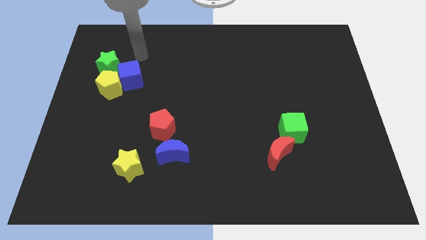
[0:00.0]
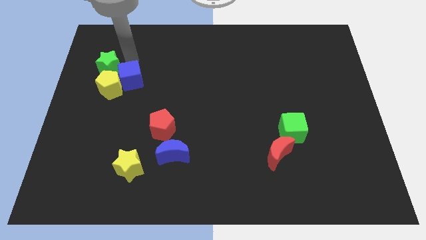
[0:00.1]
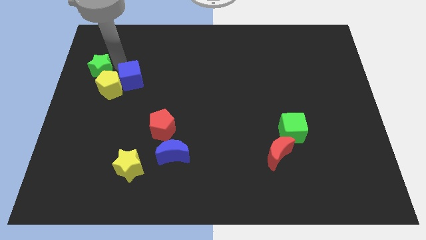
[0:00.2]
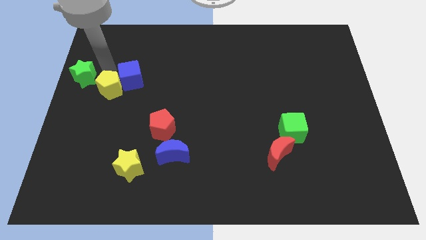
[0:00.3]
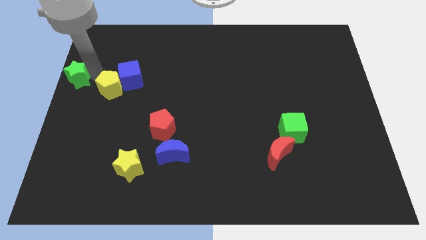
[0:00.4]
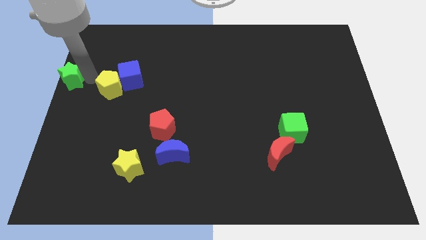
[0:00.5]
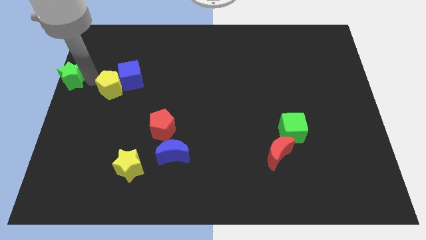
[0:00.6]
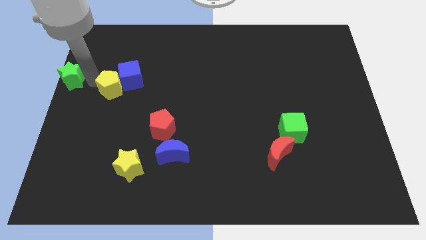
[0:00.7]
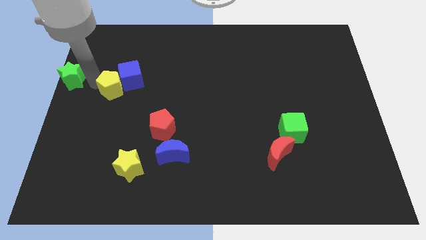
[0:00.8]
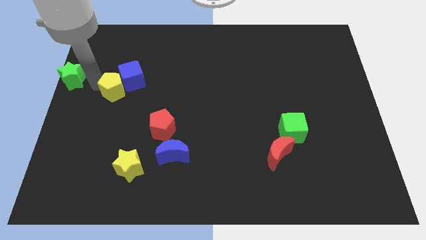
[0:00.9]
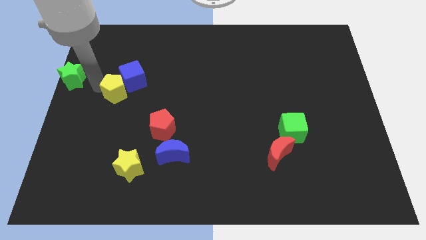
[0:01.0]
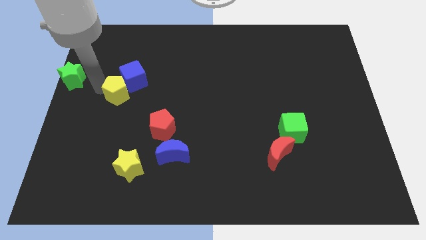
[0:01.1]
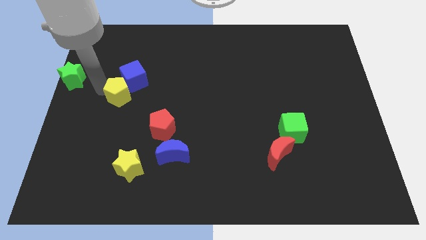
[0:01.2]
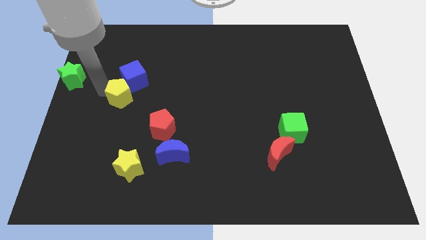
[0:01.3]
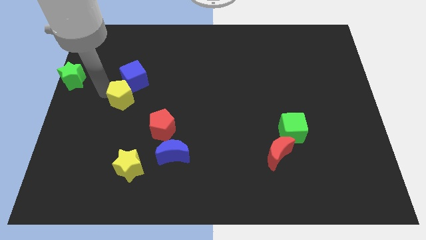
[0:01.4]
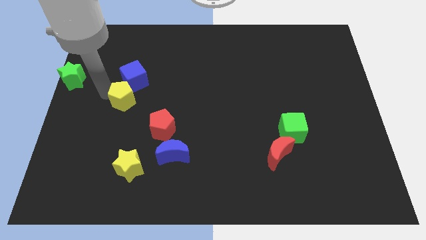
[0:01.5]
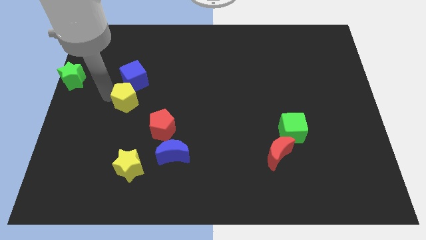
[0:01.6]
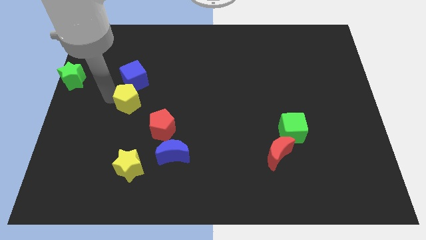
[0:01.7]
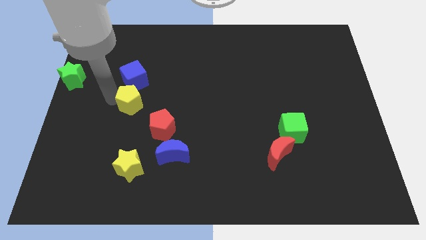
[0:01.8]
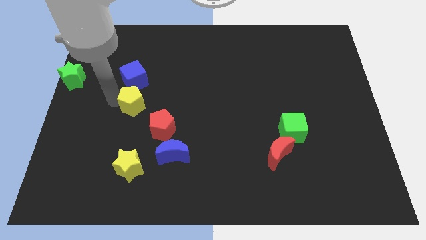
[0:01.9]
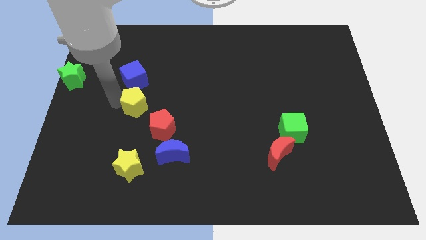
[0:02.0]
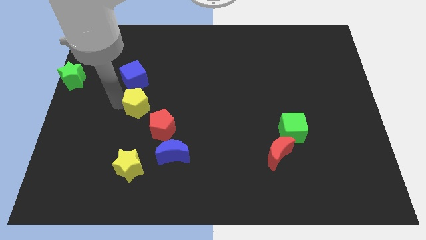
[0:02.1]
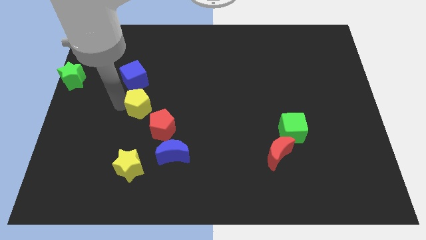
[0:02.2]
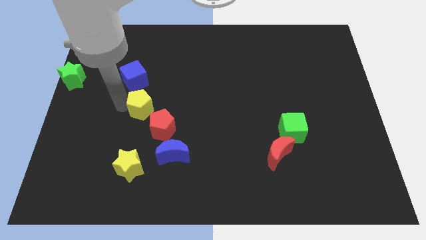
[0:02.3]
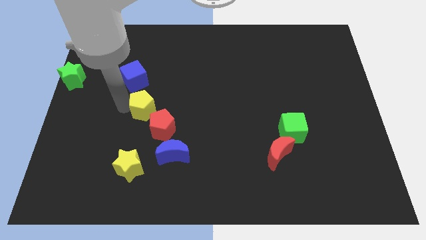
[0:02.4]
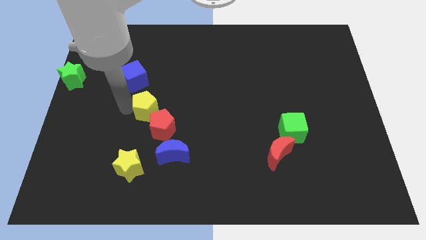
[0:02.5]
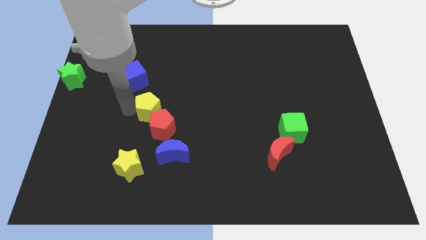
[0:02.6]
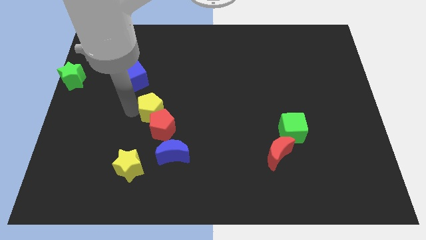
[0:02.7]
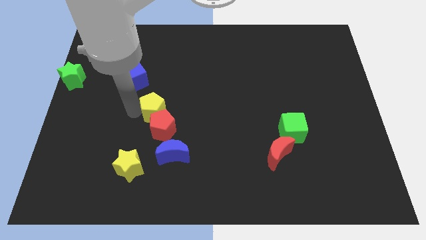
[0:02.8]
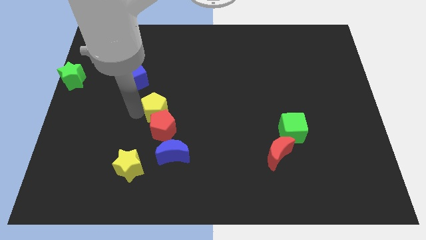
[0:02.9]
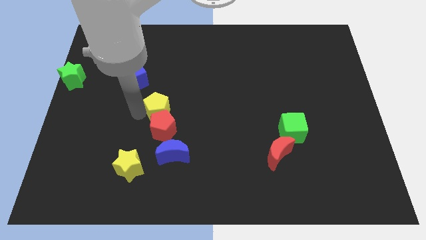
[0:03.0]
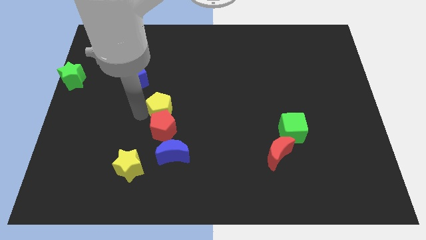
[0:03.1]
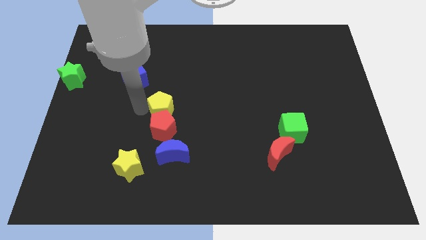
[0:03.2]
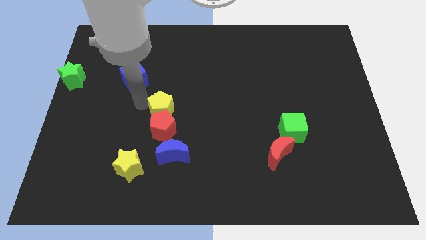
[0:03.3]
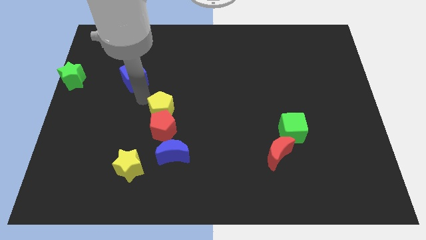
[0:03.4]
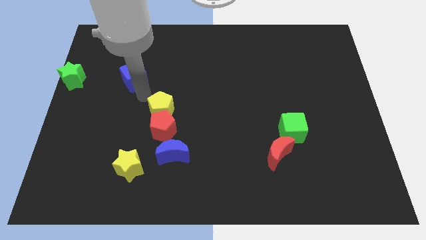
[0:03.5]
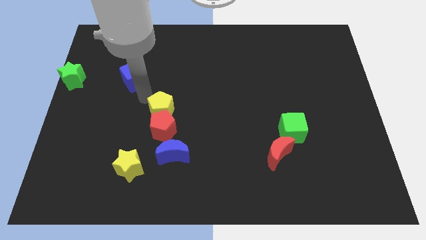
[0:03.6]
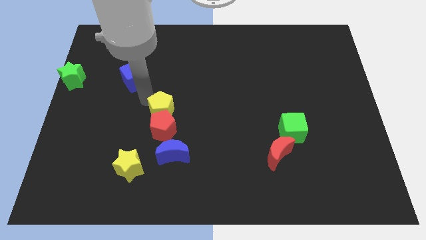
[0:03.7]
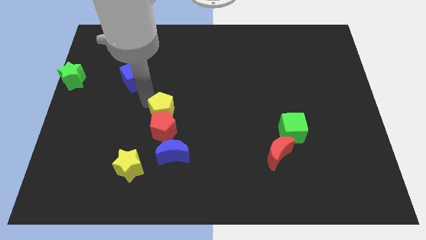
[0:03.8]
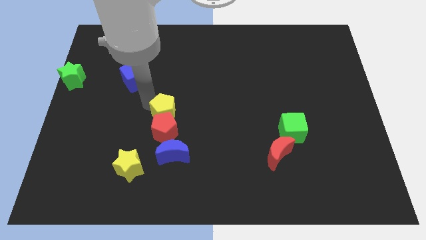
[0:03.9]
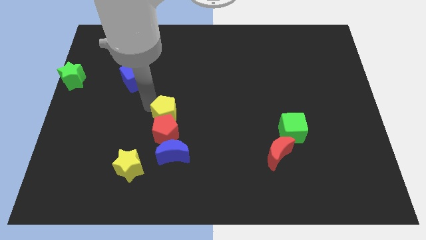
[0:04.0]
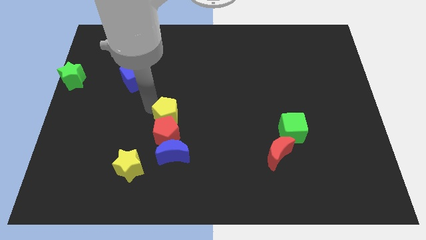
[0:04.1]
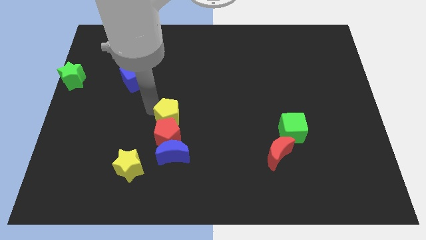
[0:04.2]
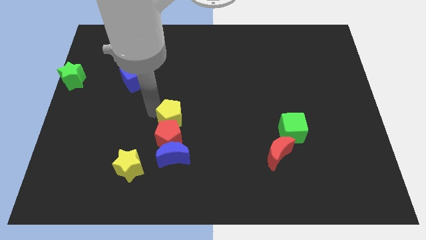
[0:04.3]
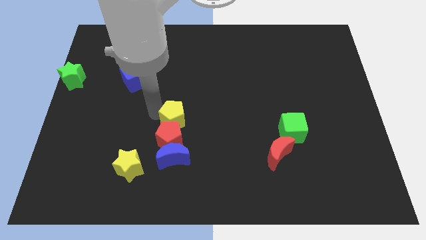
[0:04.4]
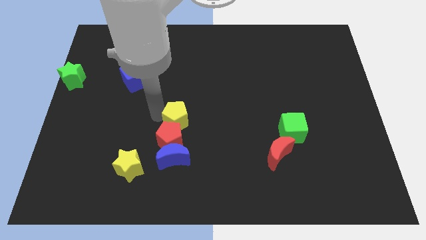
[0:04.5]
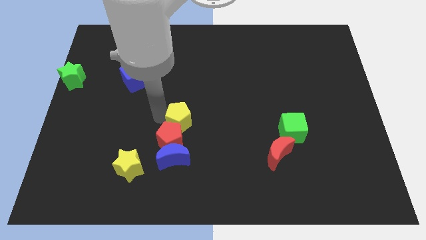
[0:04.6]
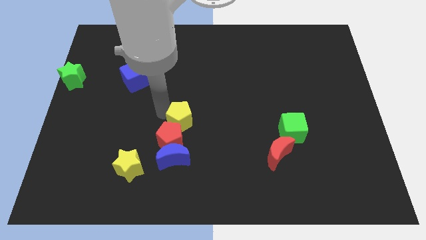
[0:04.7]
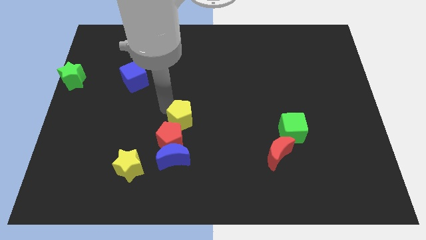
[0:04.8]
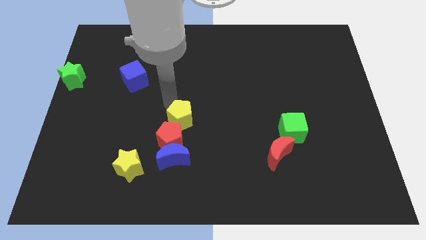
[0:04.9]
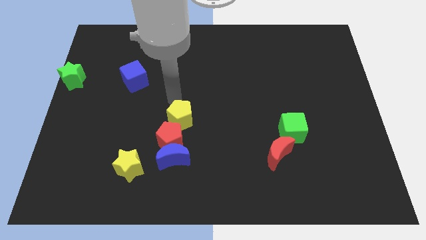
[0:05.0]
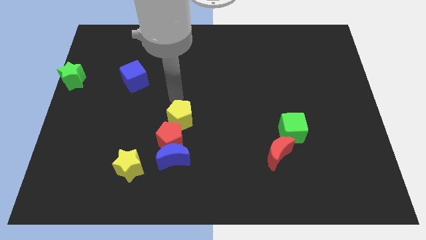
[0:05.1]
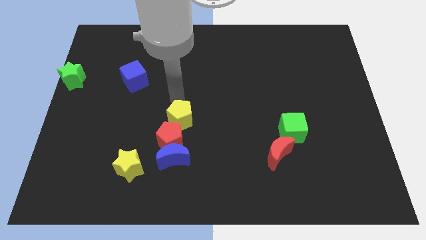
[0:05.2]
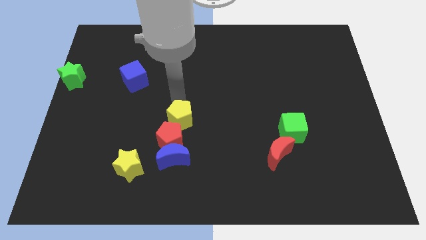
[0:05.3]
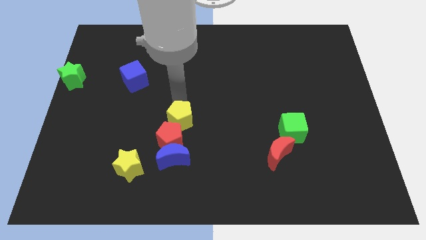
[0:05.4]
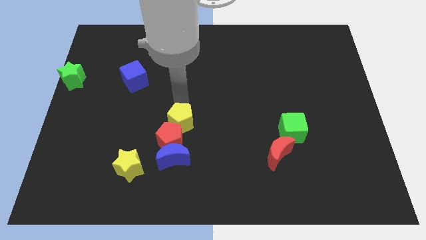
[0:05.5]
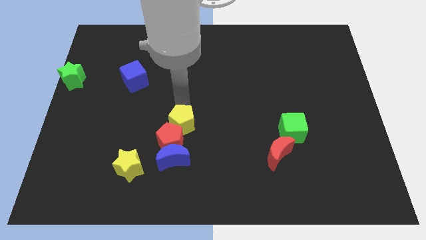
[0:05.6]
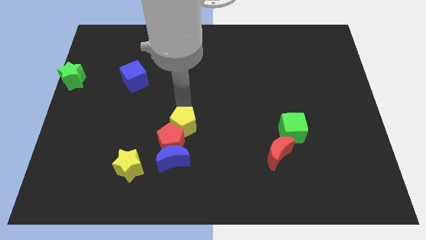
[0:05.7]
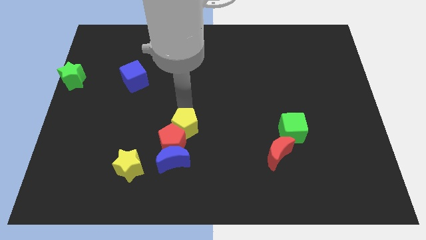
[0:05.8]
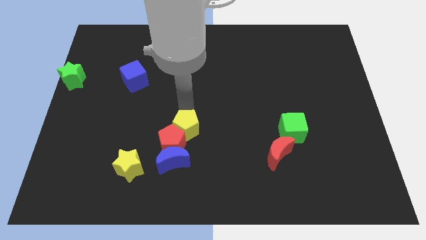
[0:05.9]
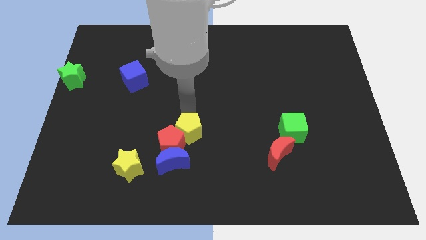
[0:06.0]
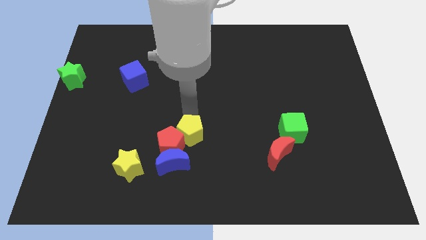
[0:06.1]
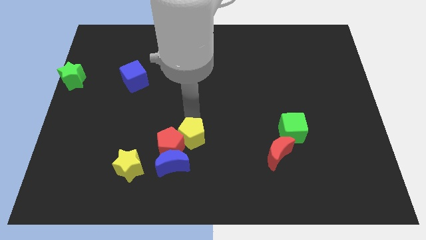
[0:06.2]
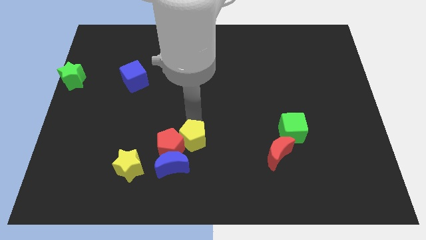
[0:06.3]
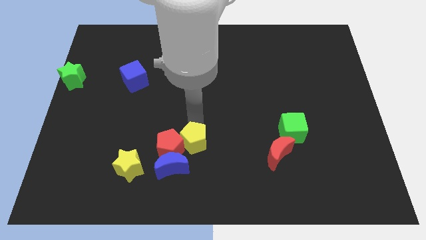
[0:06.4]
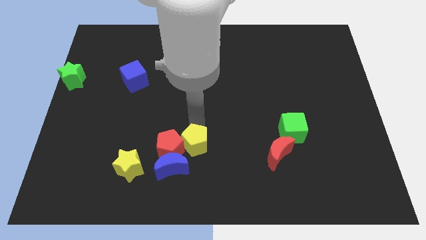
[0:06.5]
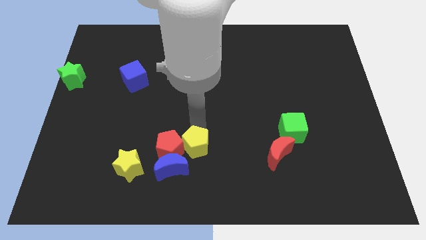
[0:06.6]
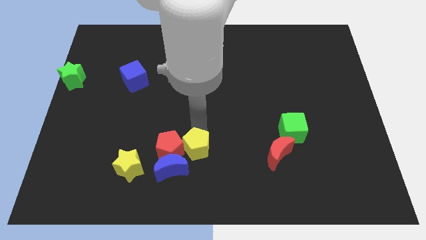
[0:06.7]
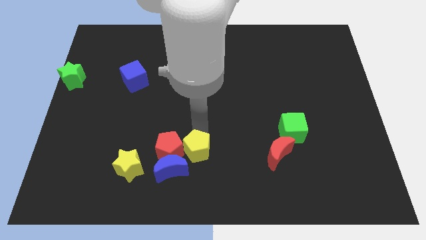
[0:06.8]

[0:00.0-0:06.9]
move the yellow pentagon to the right of the yellow star

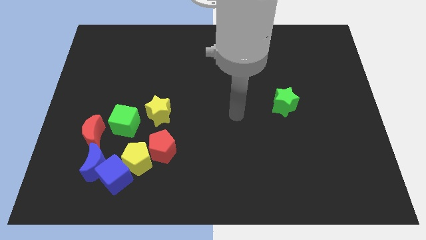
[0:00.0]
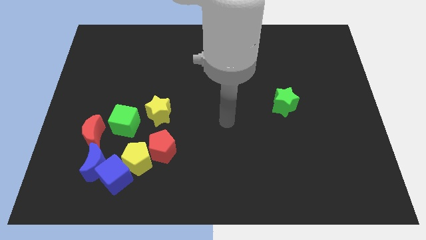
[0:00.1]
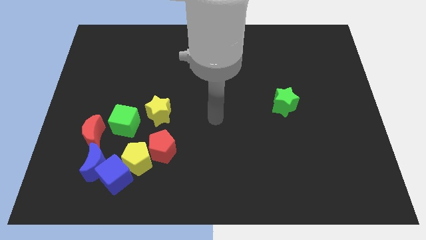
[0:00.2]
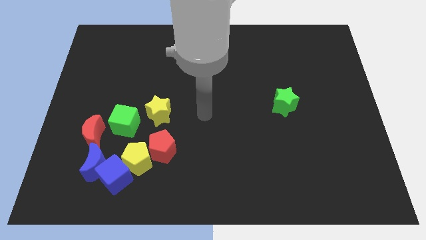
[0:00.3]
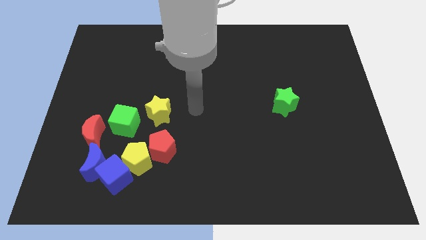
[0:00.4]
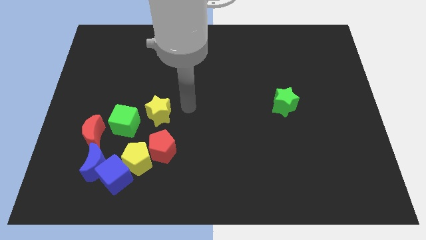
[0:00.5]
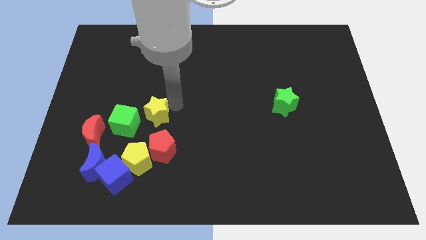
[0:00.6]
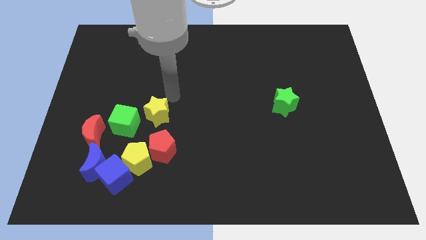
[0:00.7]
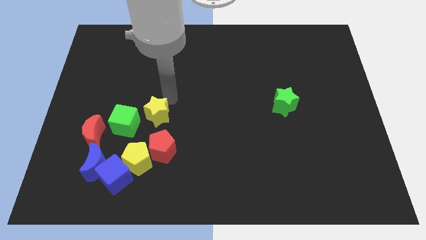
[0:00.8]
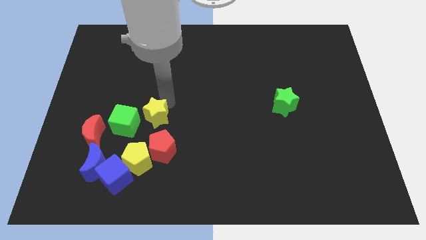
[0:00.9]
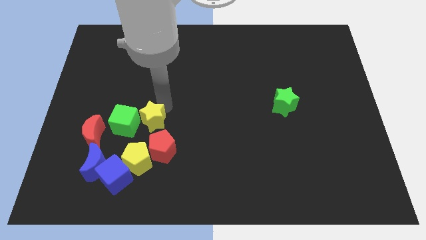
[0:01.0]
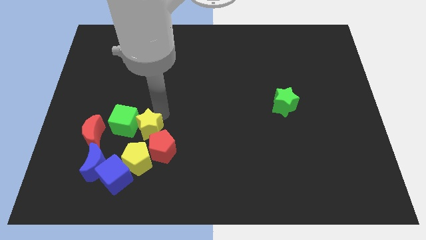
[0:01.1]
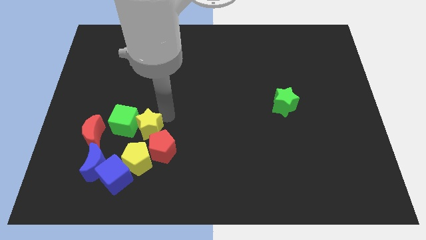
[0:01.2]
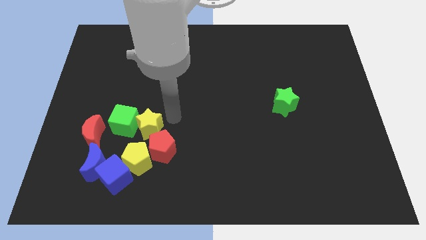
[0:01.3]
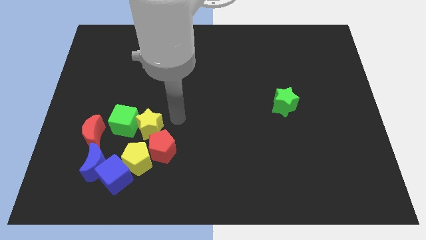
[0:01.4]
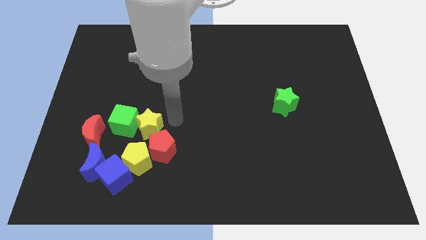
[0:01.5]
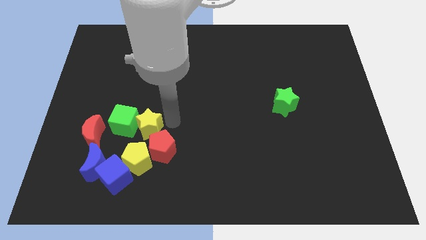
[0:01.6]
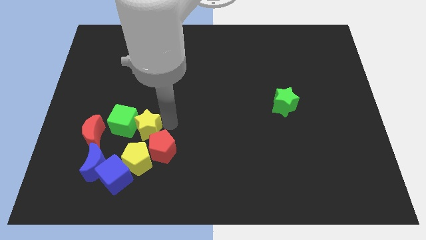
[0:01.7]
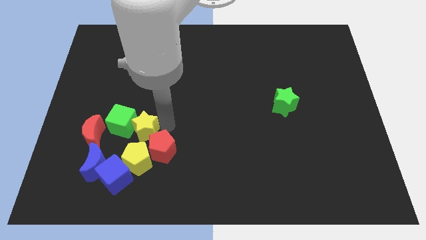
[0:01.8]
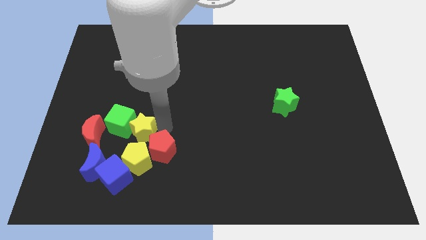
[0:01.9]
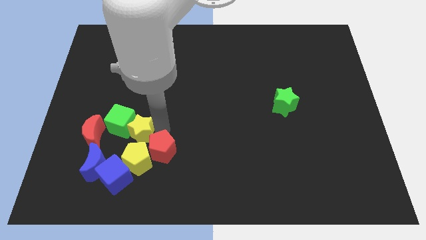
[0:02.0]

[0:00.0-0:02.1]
put the yellow star to the top left of the yellow pentagon
